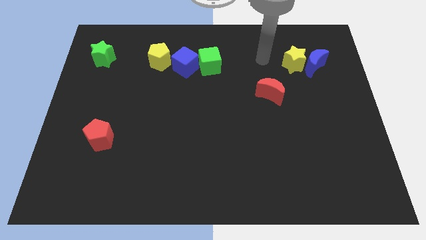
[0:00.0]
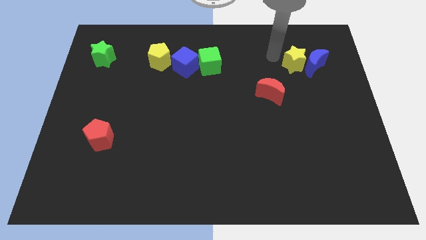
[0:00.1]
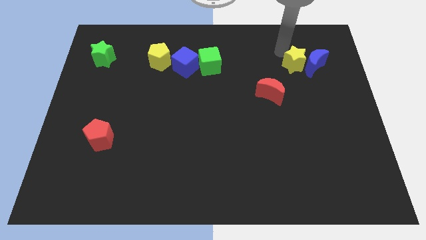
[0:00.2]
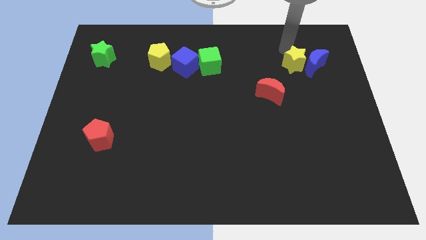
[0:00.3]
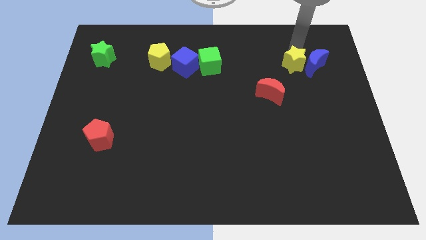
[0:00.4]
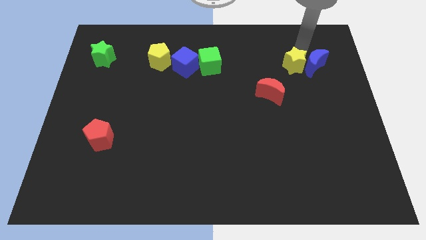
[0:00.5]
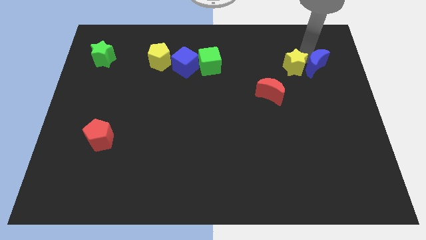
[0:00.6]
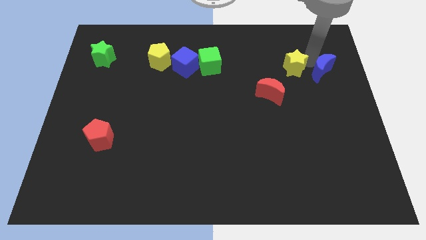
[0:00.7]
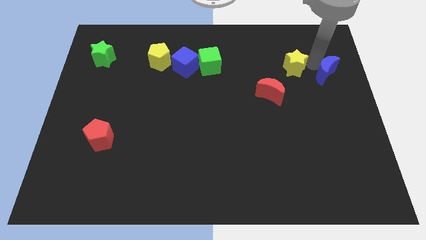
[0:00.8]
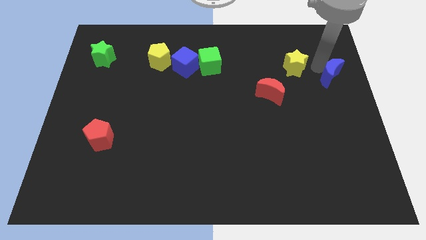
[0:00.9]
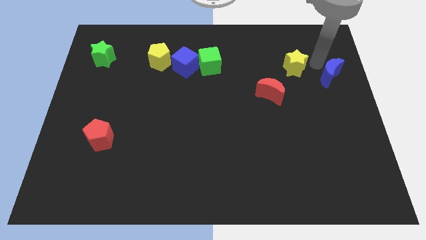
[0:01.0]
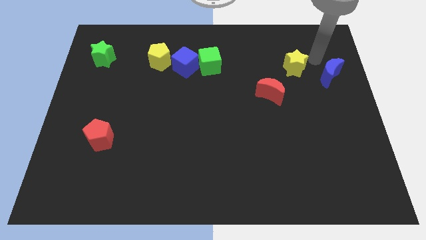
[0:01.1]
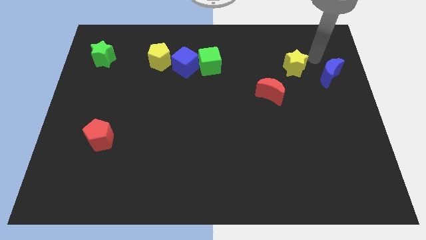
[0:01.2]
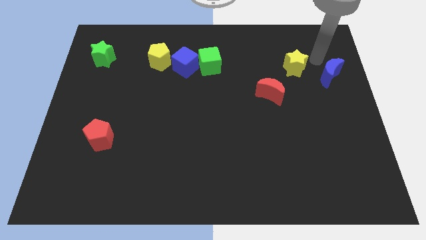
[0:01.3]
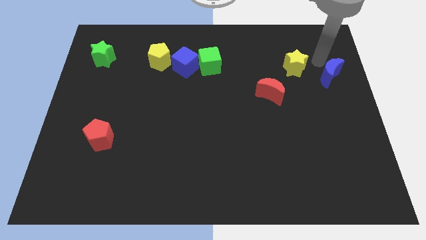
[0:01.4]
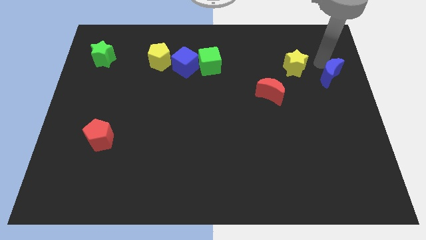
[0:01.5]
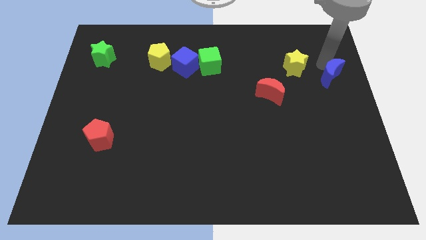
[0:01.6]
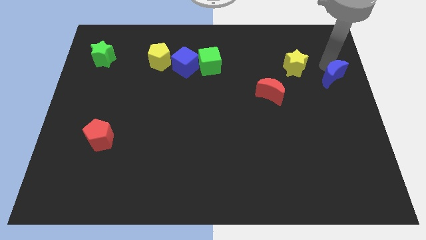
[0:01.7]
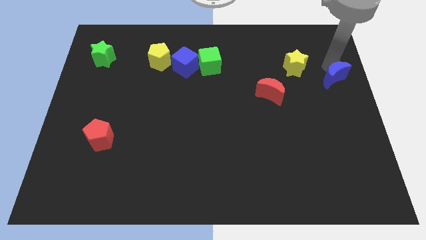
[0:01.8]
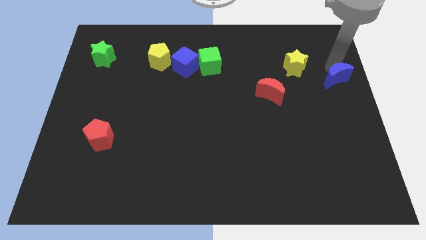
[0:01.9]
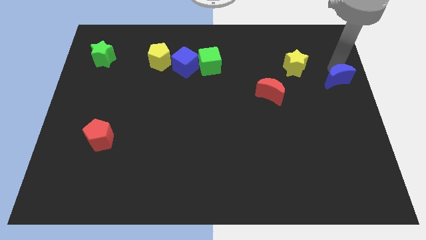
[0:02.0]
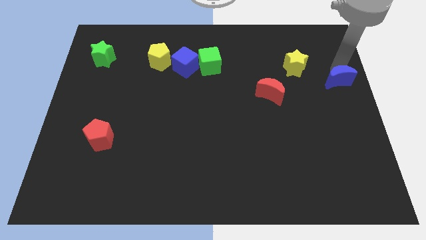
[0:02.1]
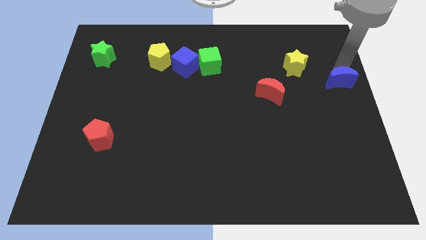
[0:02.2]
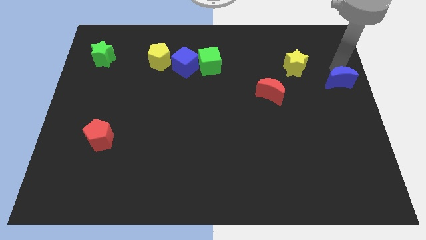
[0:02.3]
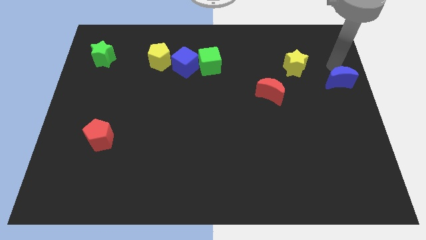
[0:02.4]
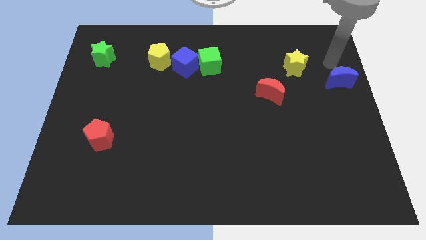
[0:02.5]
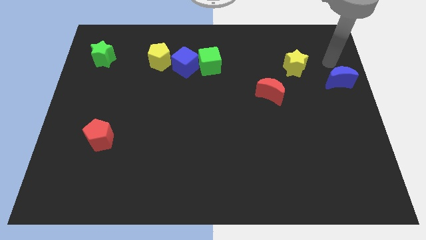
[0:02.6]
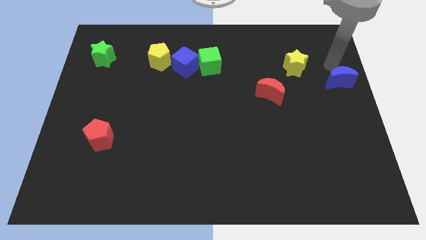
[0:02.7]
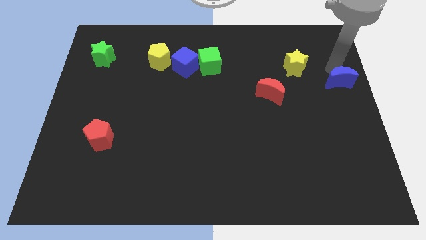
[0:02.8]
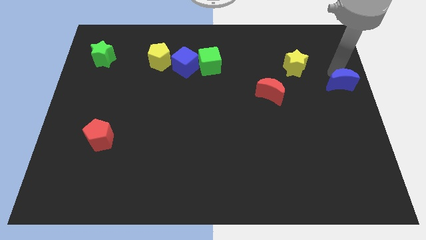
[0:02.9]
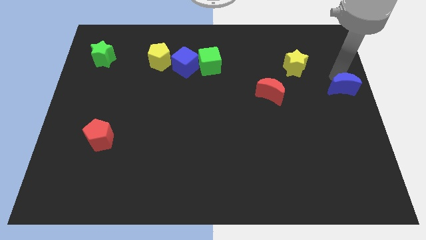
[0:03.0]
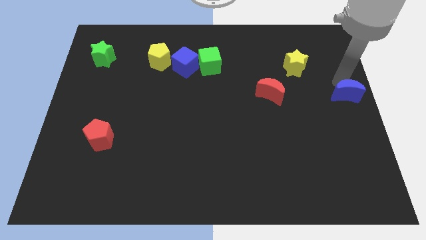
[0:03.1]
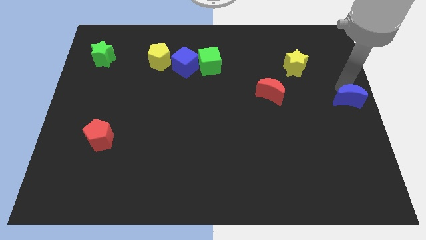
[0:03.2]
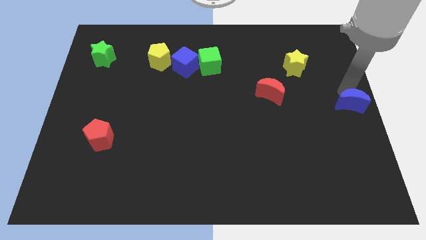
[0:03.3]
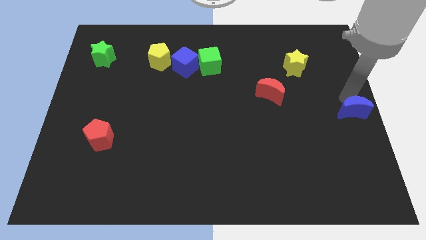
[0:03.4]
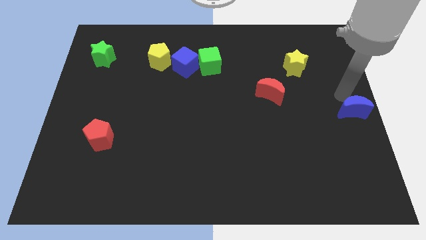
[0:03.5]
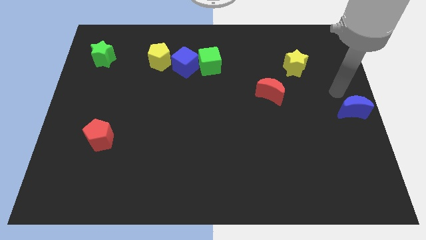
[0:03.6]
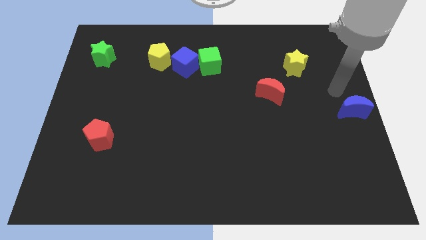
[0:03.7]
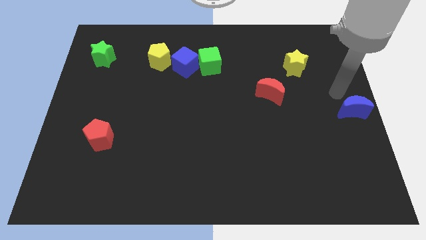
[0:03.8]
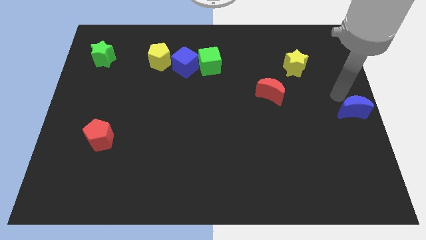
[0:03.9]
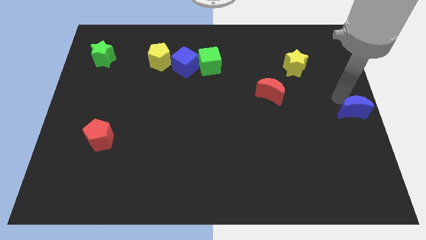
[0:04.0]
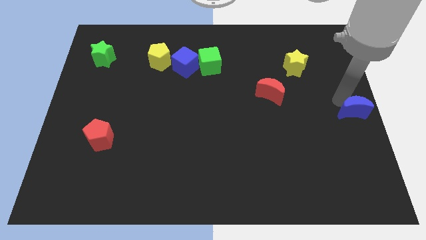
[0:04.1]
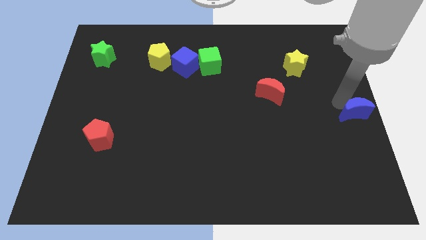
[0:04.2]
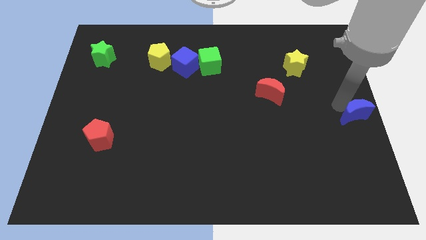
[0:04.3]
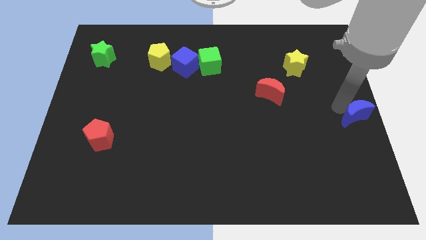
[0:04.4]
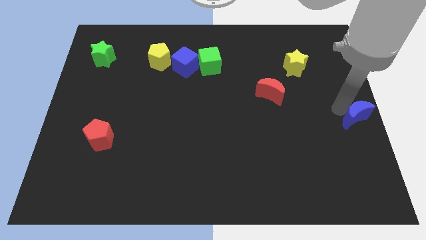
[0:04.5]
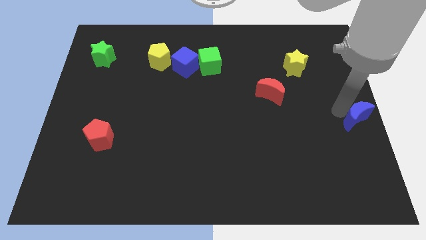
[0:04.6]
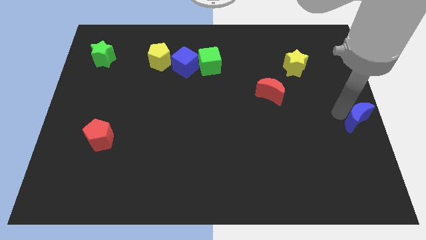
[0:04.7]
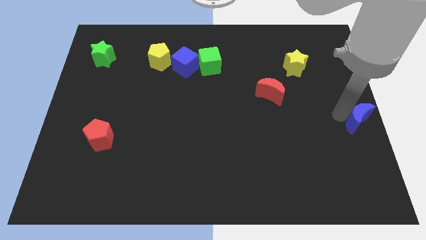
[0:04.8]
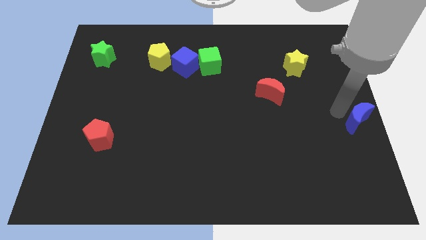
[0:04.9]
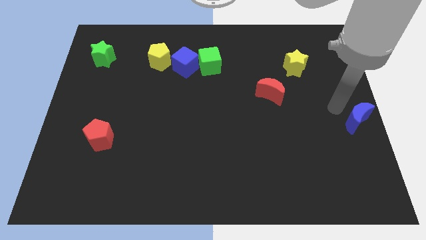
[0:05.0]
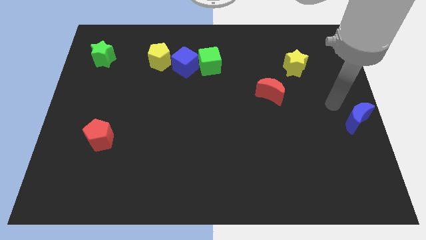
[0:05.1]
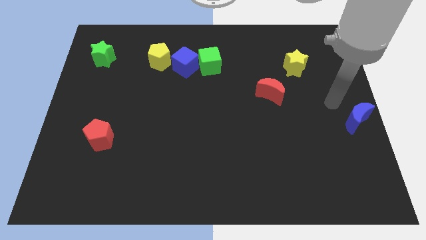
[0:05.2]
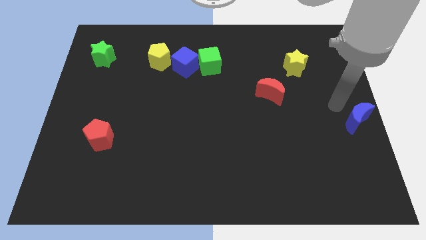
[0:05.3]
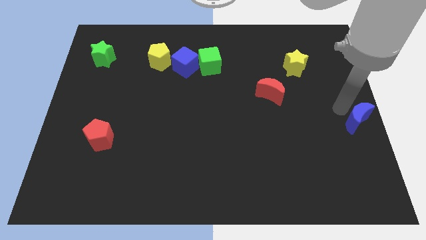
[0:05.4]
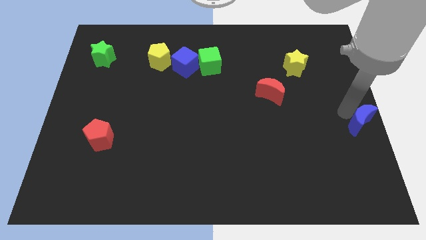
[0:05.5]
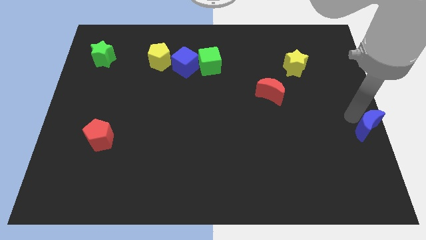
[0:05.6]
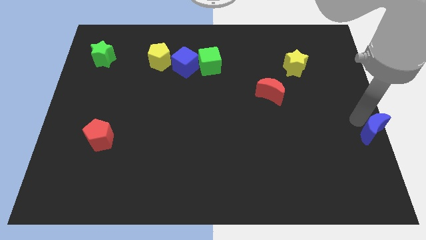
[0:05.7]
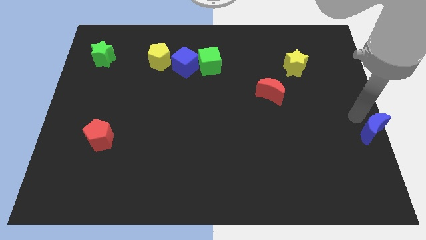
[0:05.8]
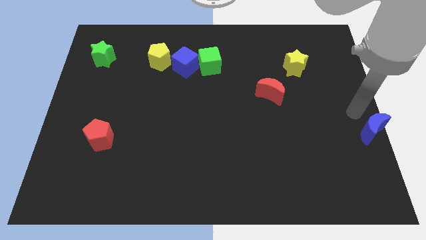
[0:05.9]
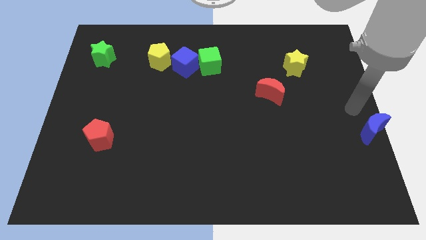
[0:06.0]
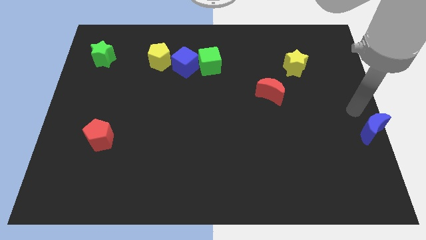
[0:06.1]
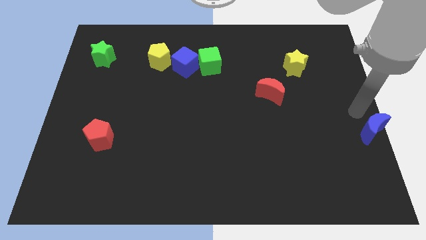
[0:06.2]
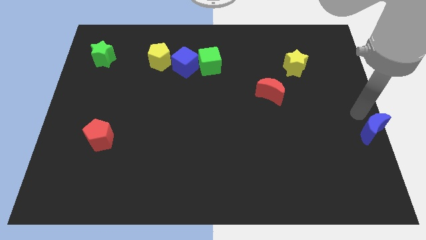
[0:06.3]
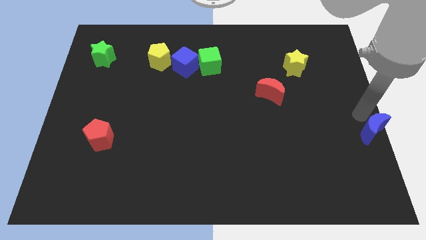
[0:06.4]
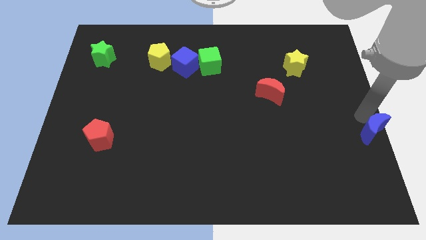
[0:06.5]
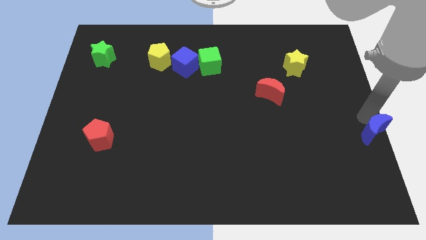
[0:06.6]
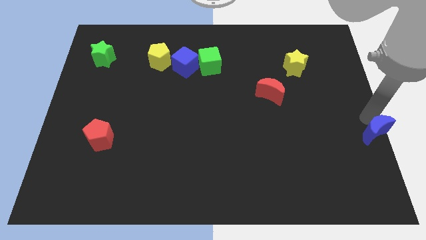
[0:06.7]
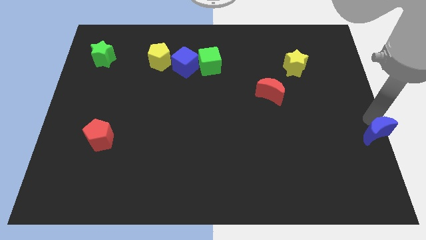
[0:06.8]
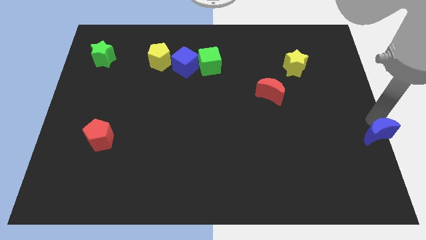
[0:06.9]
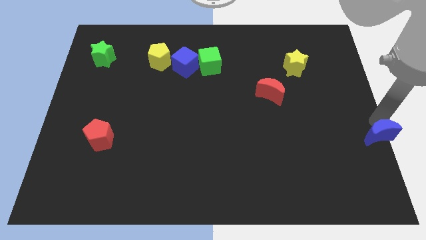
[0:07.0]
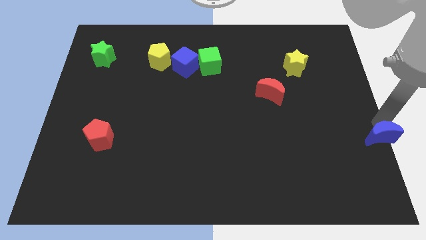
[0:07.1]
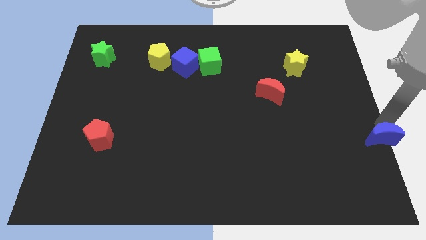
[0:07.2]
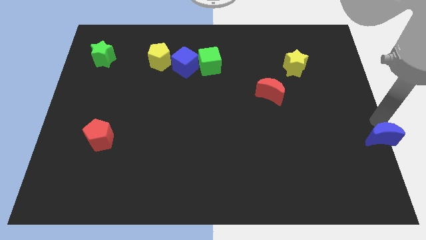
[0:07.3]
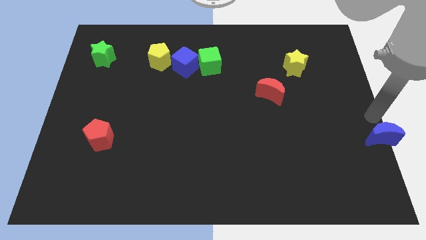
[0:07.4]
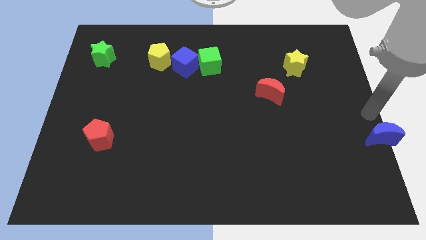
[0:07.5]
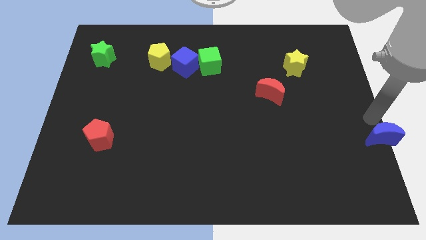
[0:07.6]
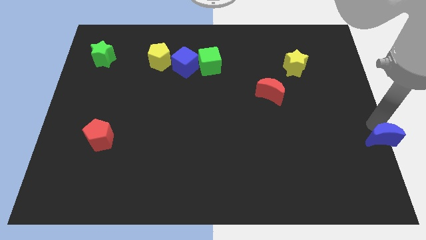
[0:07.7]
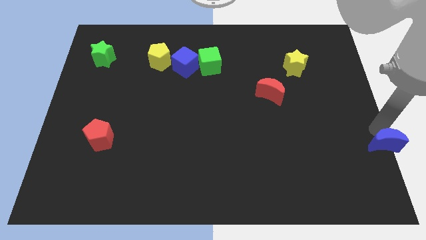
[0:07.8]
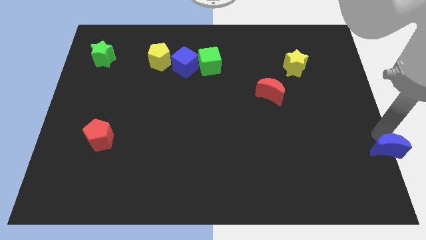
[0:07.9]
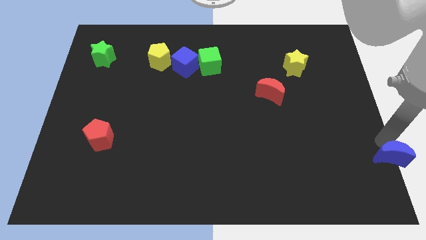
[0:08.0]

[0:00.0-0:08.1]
slide the blue moon to the bottom right corner
